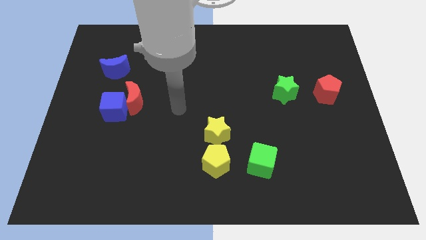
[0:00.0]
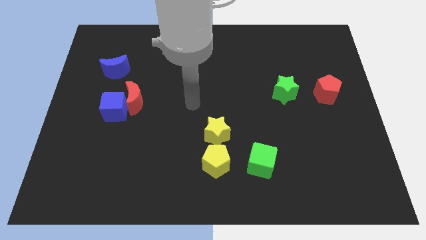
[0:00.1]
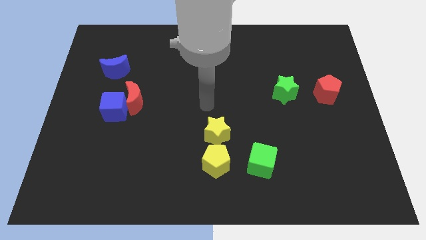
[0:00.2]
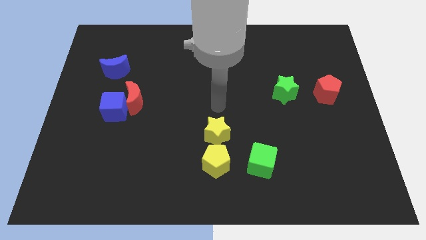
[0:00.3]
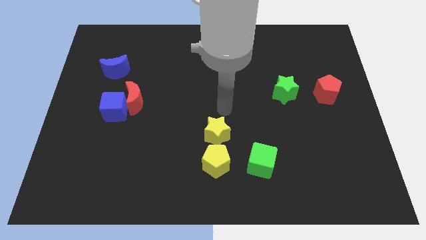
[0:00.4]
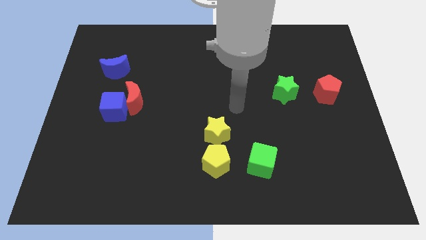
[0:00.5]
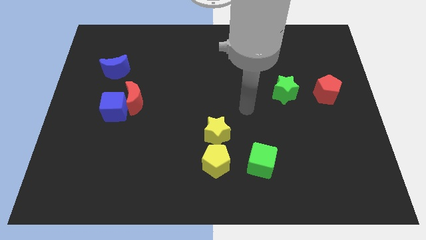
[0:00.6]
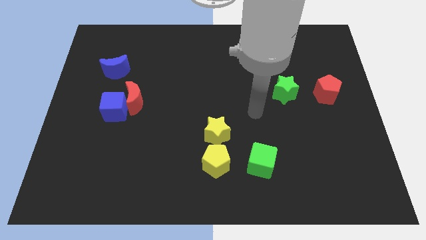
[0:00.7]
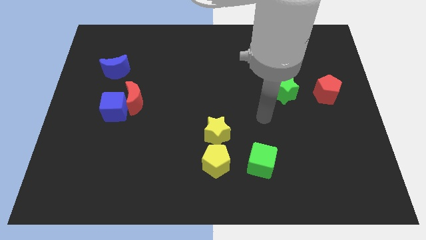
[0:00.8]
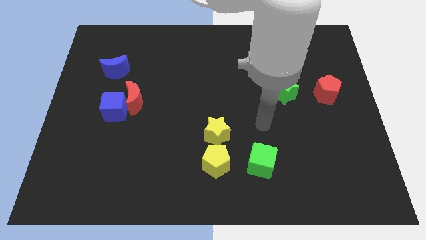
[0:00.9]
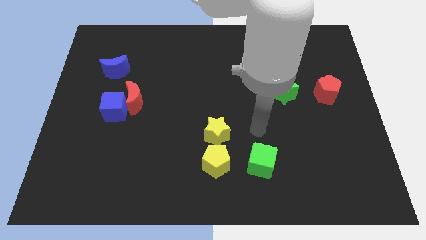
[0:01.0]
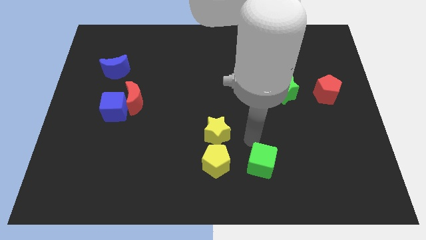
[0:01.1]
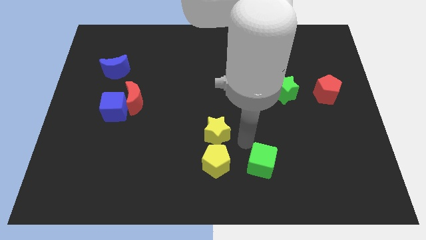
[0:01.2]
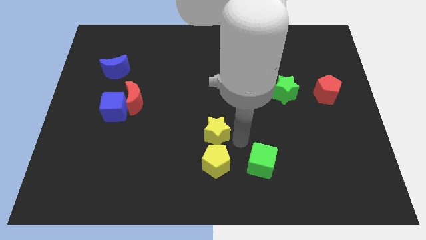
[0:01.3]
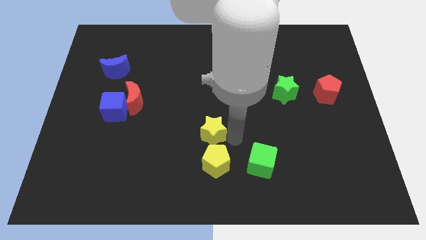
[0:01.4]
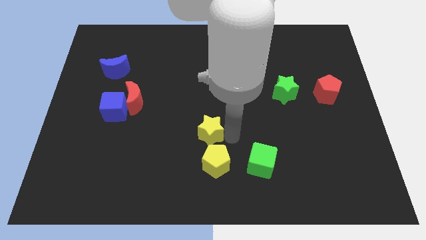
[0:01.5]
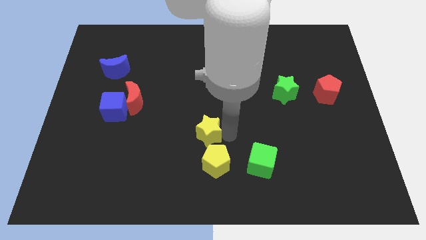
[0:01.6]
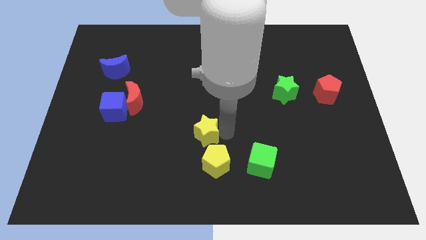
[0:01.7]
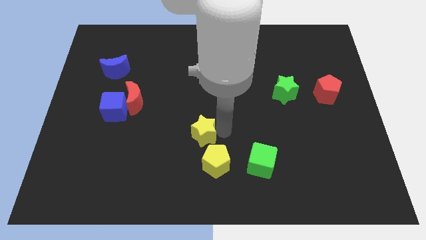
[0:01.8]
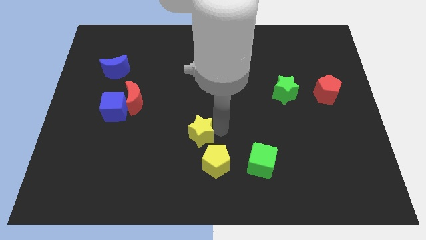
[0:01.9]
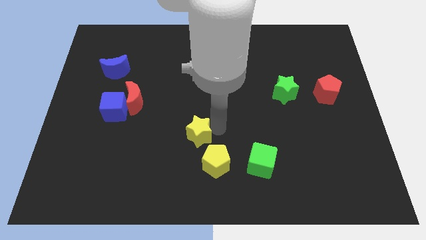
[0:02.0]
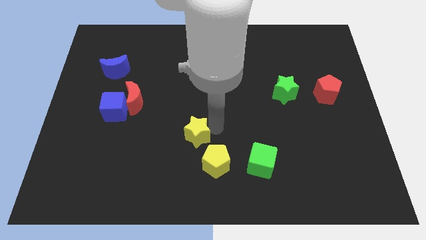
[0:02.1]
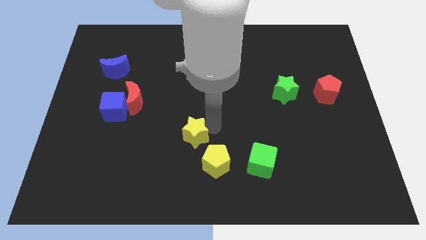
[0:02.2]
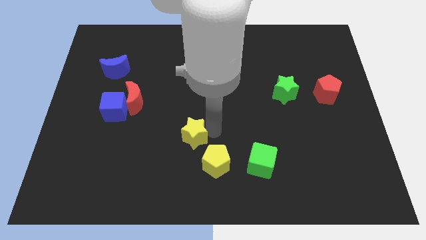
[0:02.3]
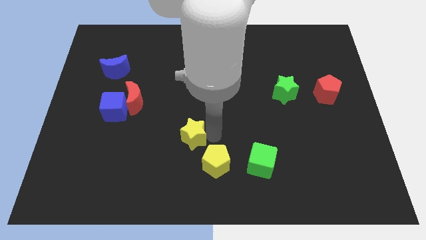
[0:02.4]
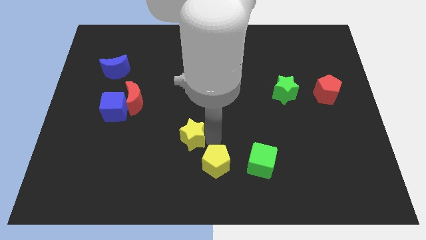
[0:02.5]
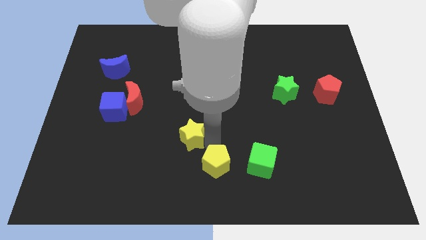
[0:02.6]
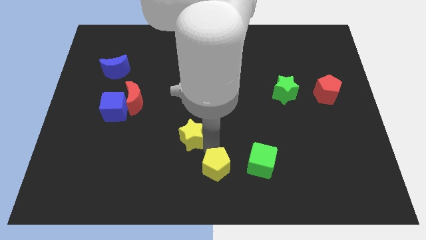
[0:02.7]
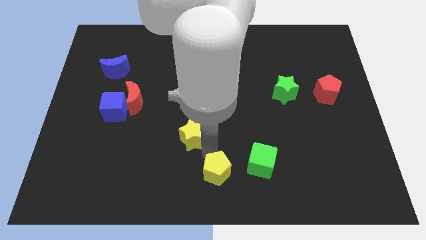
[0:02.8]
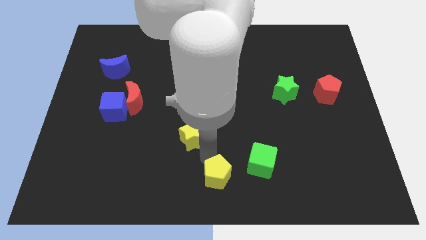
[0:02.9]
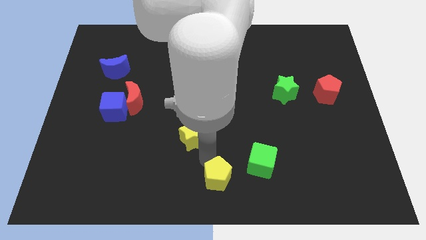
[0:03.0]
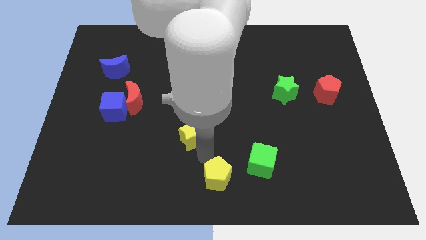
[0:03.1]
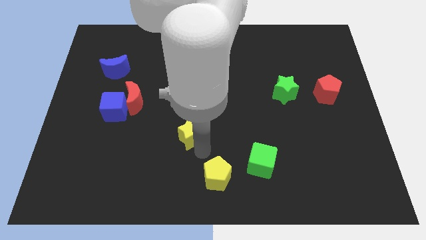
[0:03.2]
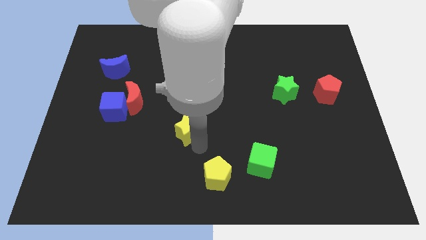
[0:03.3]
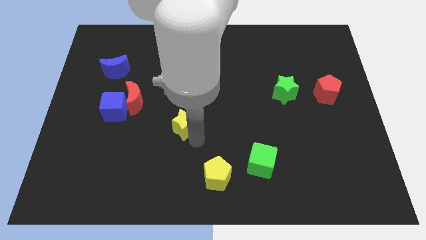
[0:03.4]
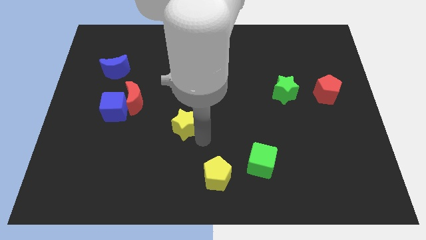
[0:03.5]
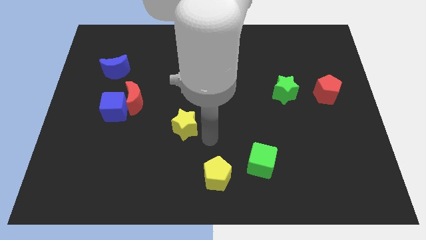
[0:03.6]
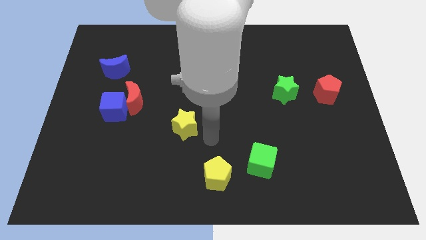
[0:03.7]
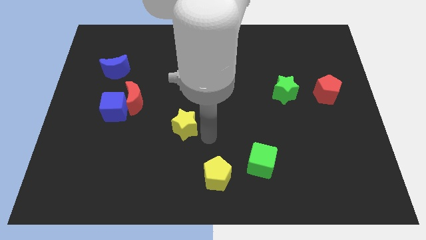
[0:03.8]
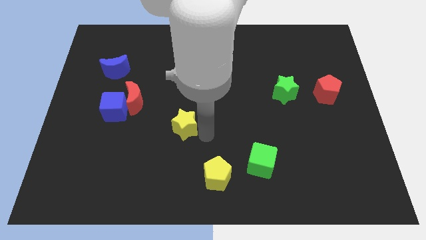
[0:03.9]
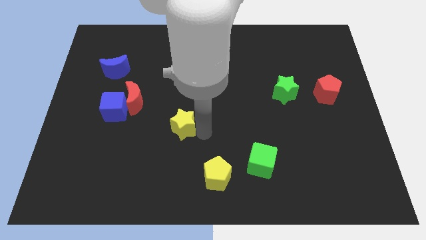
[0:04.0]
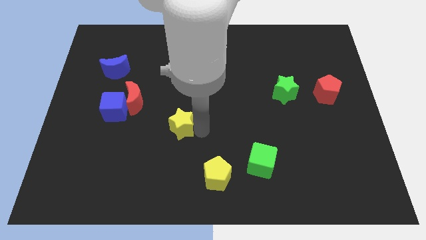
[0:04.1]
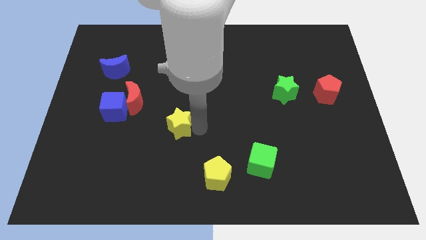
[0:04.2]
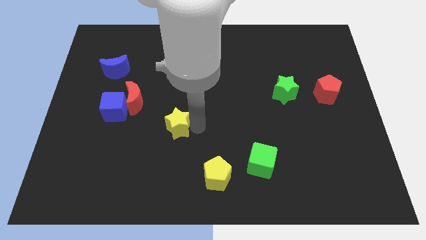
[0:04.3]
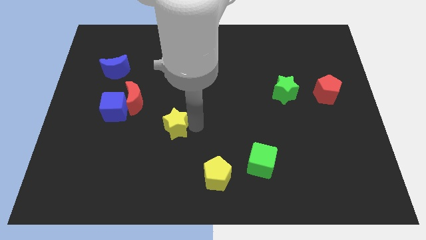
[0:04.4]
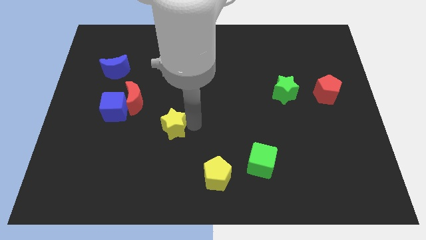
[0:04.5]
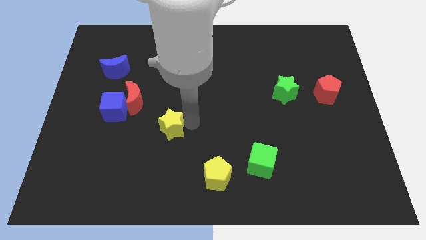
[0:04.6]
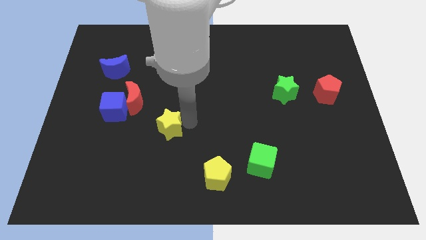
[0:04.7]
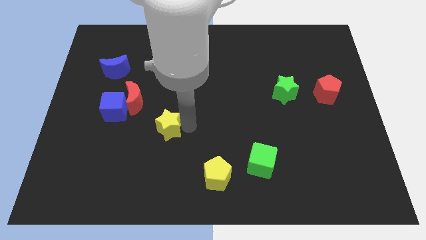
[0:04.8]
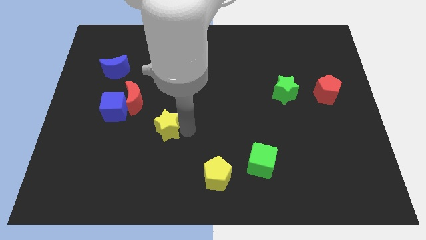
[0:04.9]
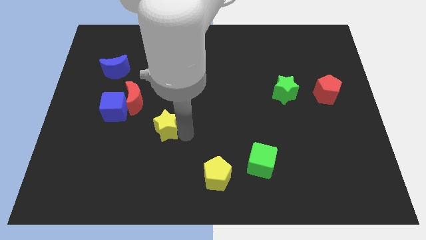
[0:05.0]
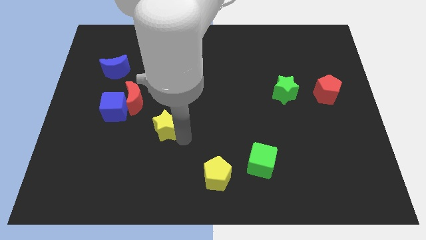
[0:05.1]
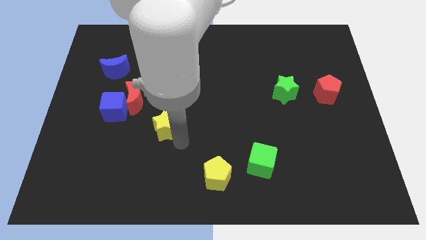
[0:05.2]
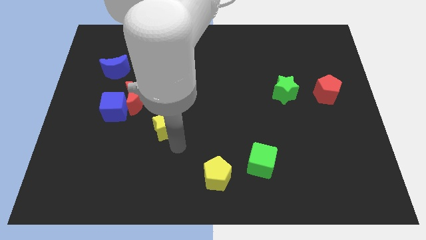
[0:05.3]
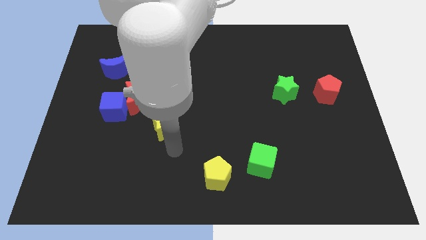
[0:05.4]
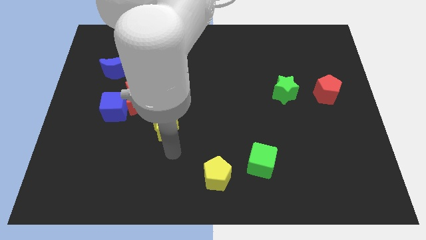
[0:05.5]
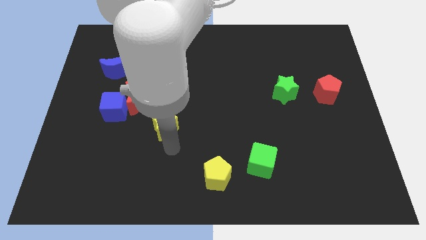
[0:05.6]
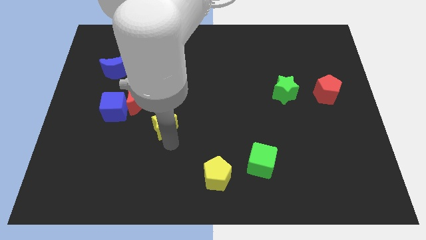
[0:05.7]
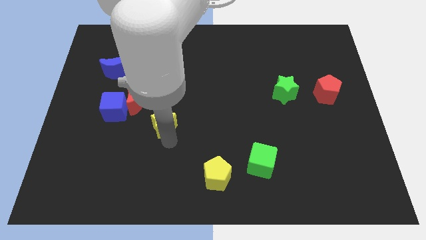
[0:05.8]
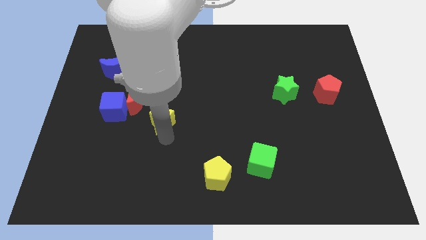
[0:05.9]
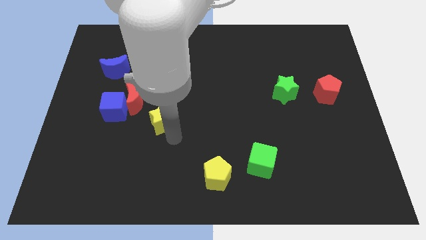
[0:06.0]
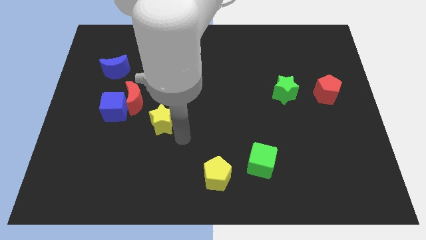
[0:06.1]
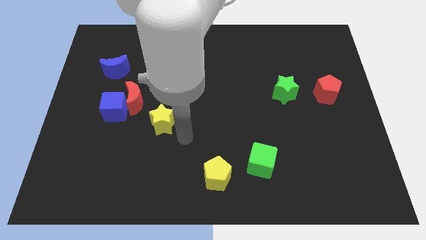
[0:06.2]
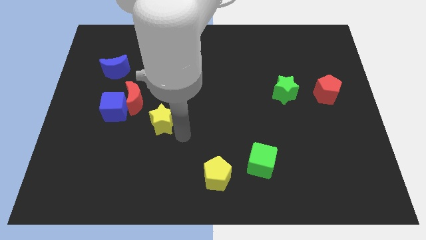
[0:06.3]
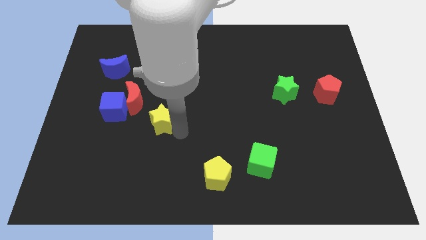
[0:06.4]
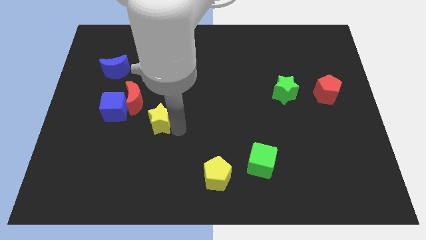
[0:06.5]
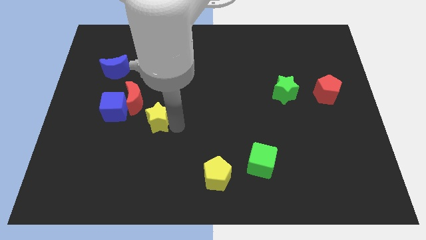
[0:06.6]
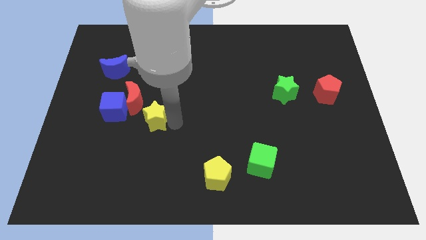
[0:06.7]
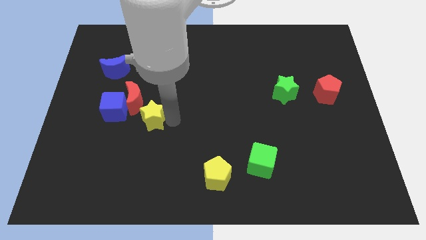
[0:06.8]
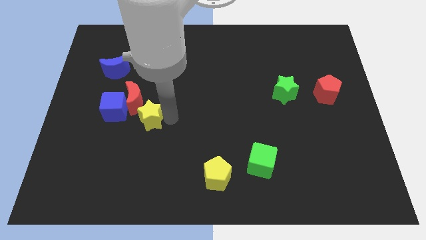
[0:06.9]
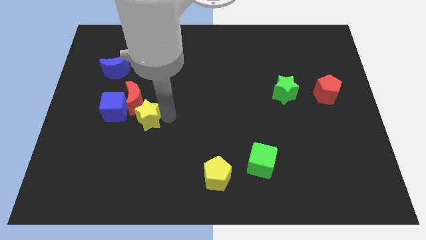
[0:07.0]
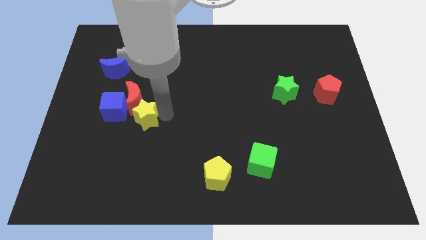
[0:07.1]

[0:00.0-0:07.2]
move the yellow star to the red moon
